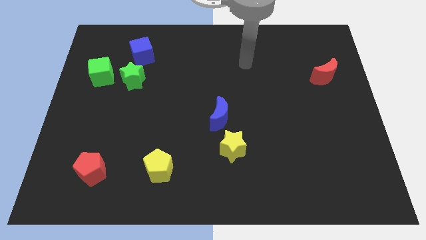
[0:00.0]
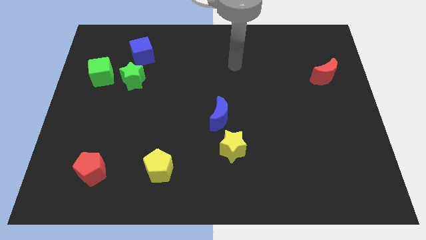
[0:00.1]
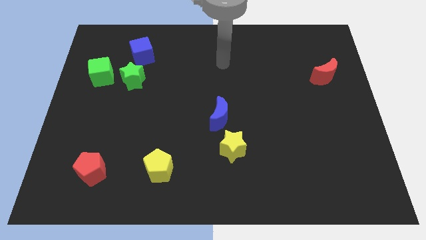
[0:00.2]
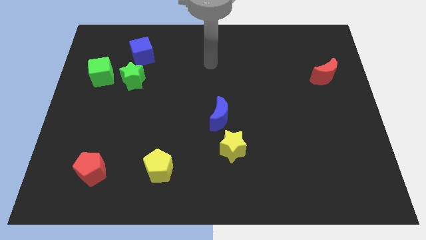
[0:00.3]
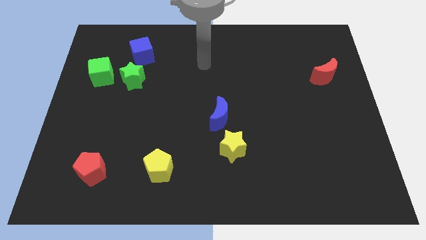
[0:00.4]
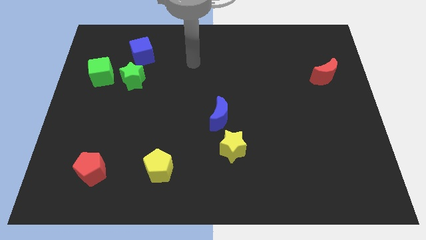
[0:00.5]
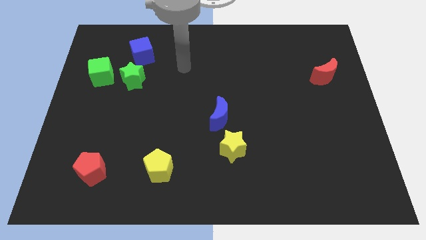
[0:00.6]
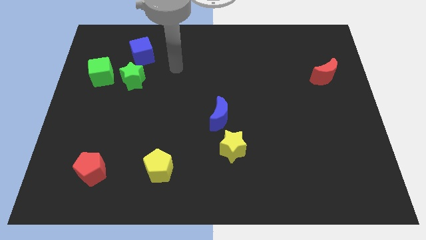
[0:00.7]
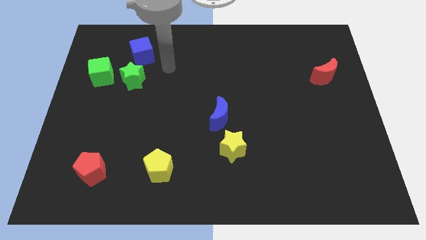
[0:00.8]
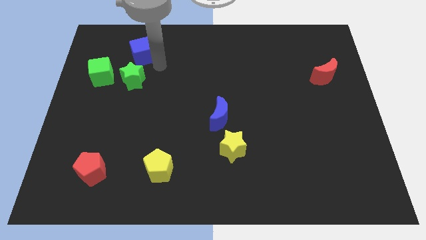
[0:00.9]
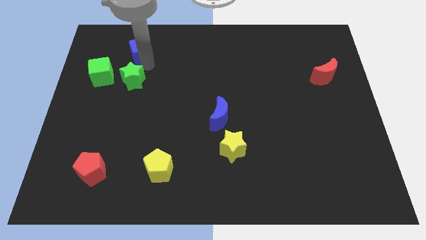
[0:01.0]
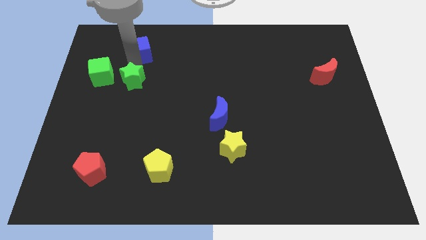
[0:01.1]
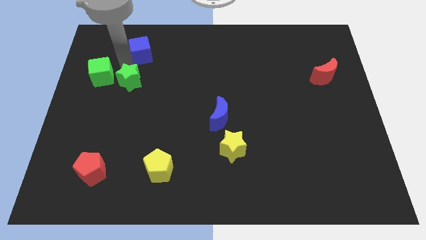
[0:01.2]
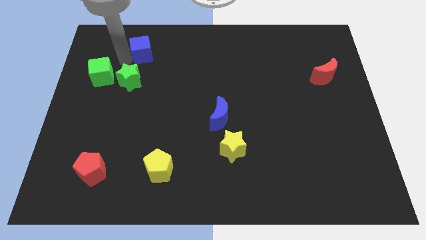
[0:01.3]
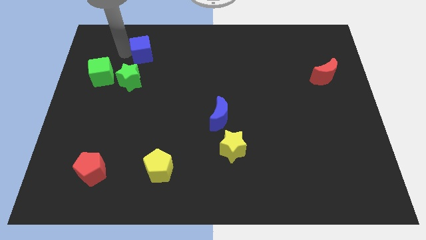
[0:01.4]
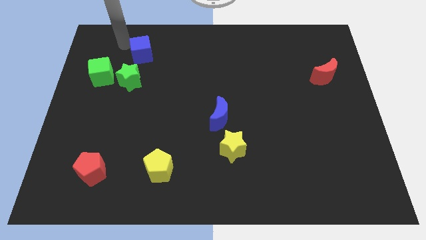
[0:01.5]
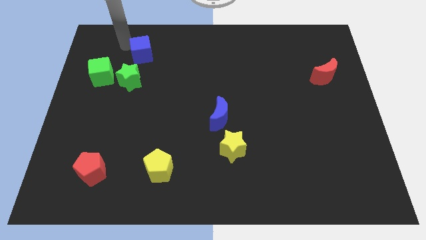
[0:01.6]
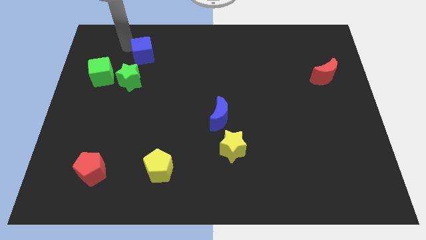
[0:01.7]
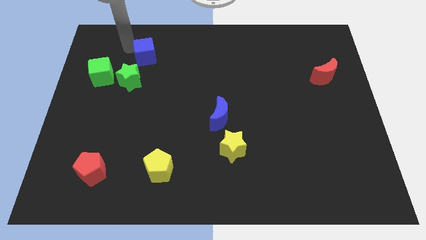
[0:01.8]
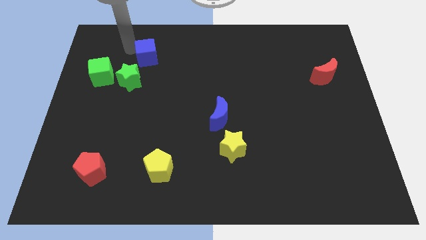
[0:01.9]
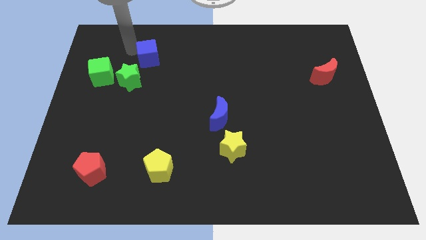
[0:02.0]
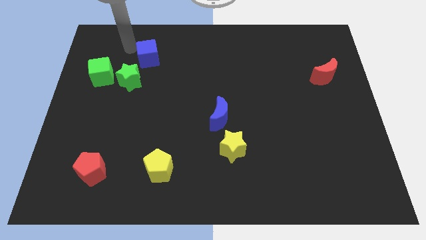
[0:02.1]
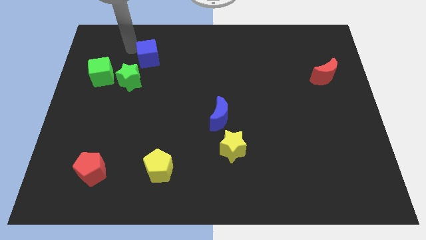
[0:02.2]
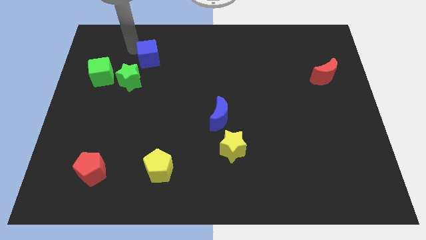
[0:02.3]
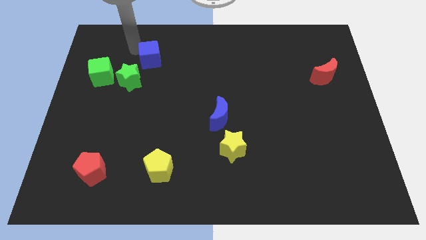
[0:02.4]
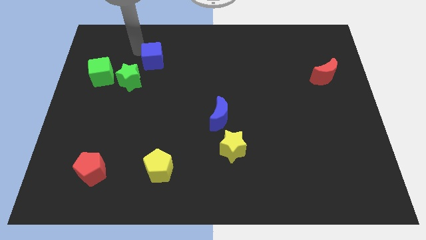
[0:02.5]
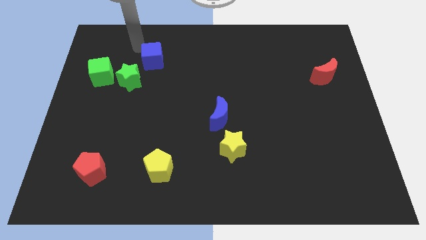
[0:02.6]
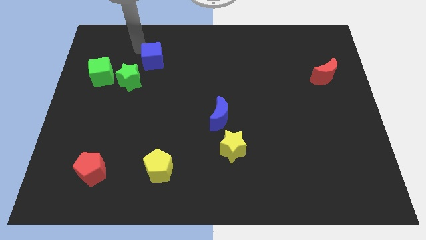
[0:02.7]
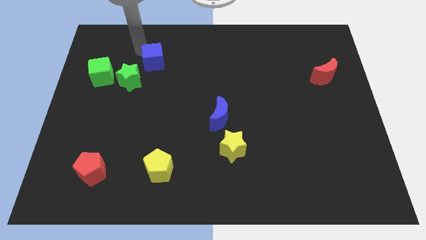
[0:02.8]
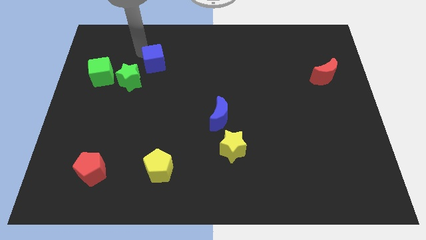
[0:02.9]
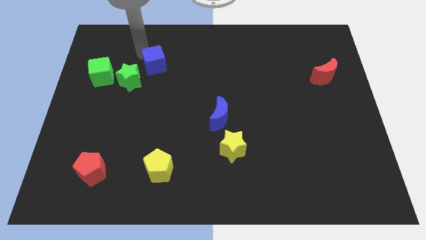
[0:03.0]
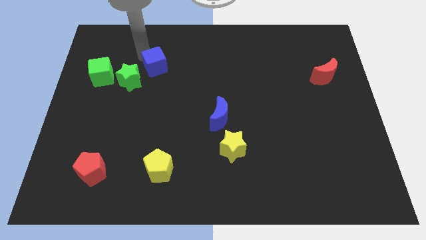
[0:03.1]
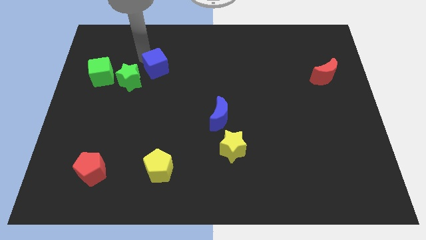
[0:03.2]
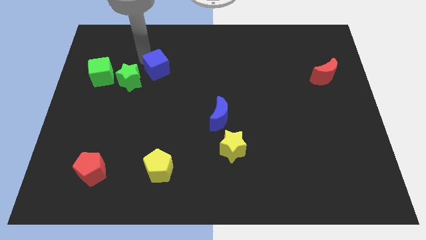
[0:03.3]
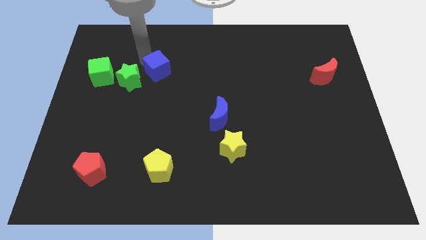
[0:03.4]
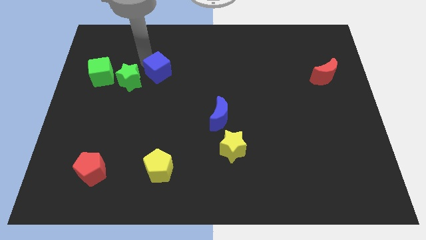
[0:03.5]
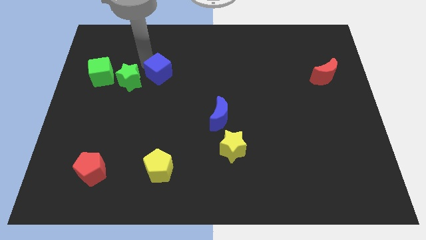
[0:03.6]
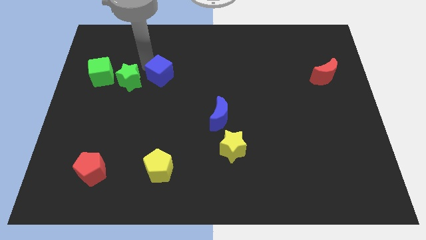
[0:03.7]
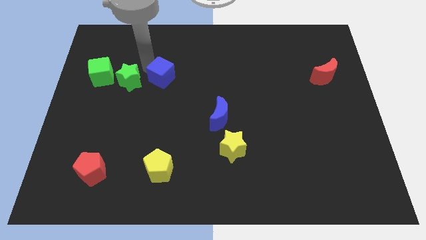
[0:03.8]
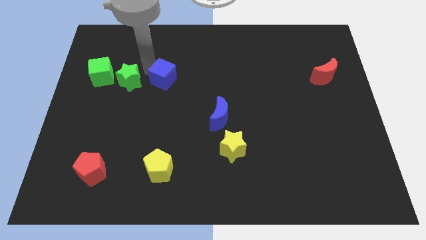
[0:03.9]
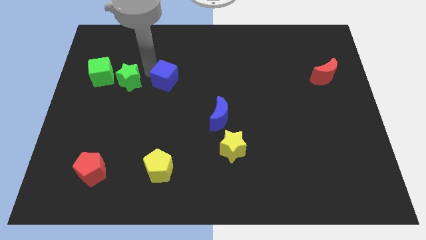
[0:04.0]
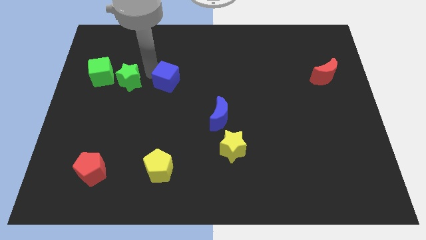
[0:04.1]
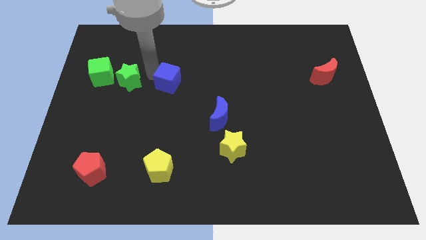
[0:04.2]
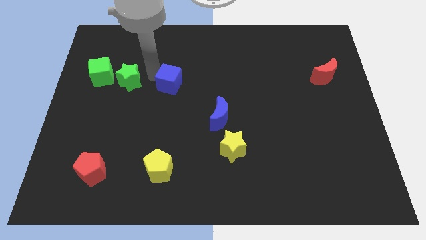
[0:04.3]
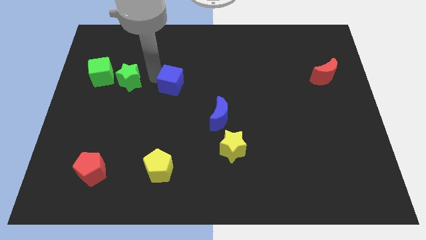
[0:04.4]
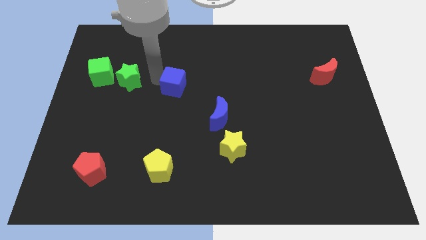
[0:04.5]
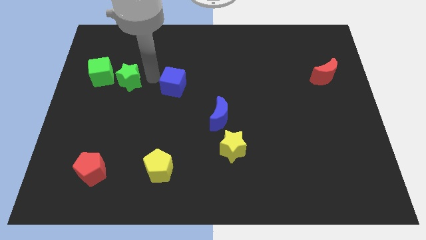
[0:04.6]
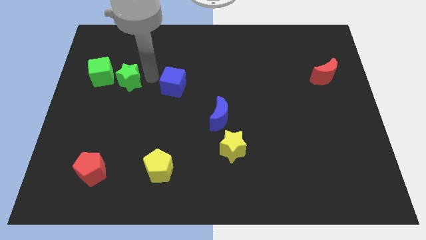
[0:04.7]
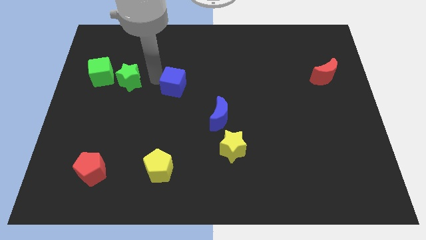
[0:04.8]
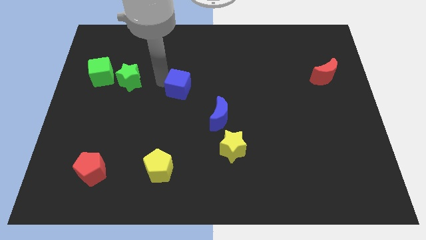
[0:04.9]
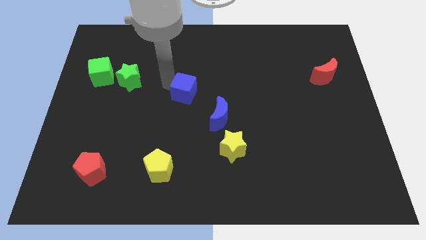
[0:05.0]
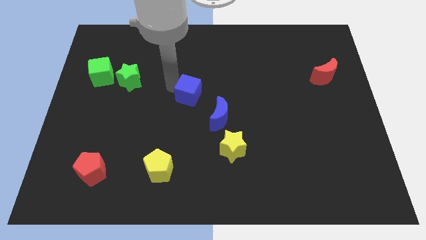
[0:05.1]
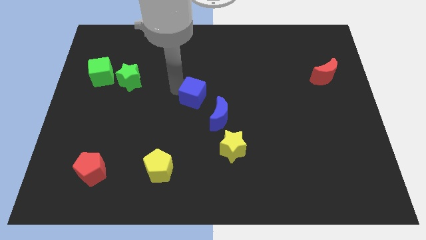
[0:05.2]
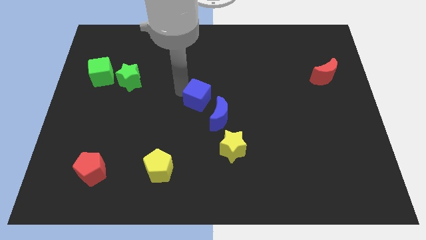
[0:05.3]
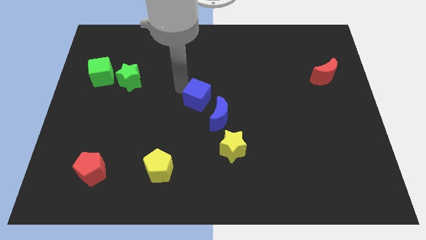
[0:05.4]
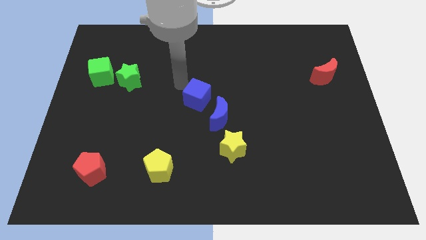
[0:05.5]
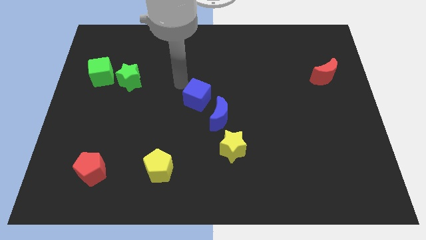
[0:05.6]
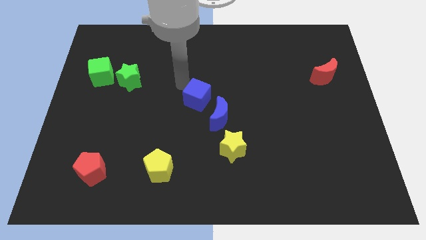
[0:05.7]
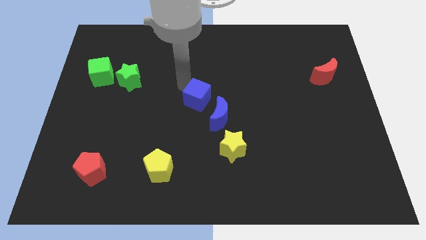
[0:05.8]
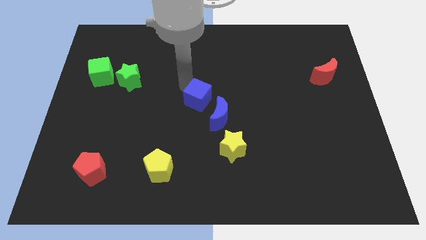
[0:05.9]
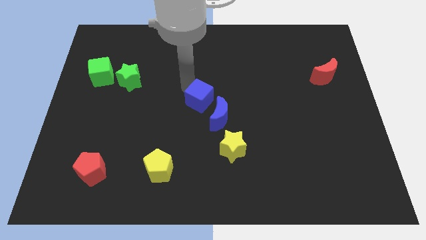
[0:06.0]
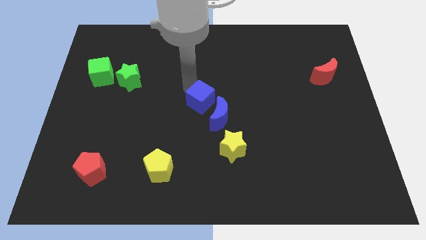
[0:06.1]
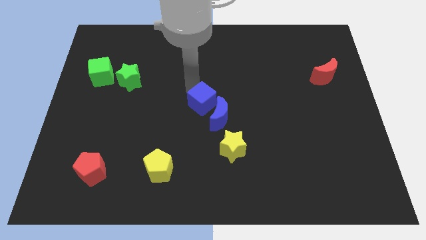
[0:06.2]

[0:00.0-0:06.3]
slide the blue cube to the blue moon

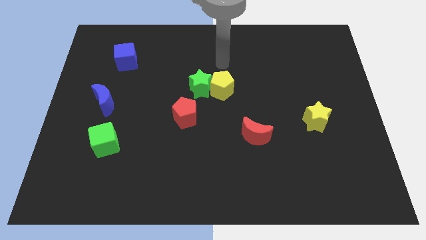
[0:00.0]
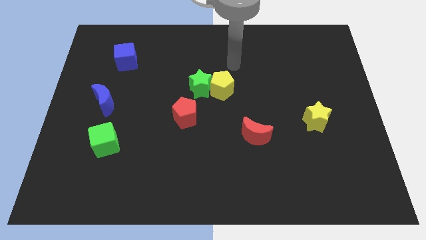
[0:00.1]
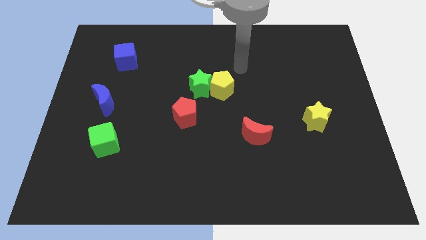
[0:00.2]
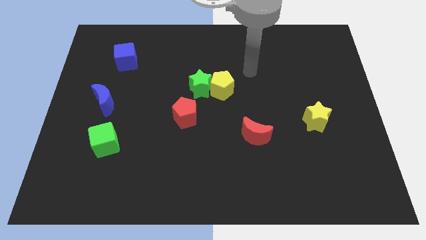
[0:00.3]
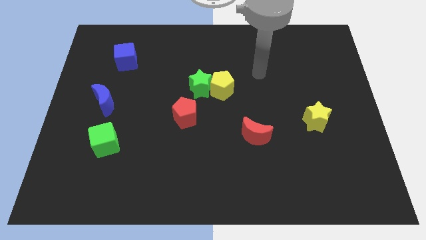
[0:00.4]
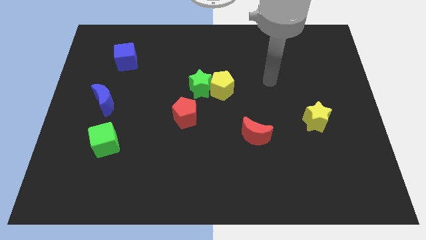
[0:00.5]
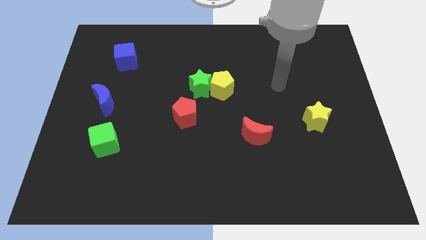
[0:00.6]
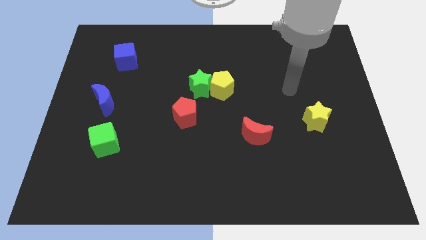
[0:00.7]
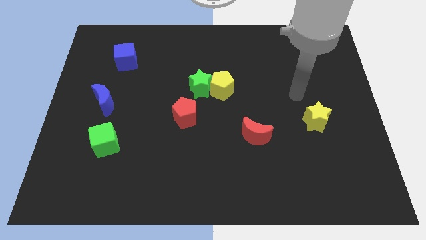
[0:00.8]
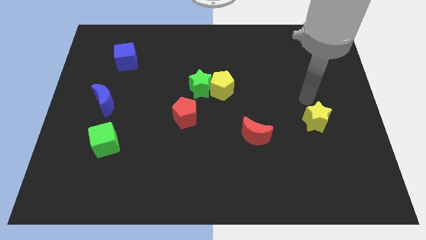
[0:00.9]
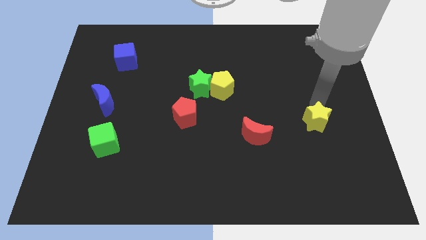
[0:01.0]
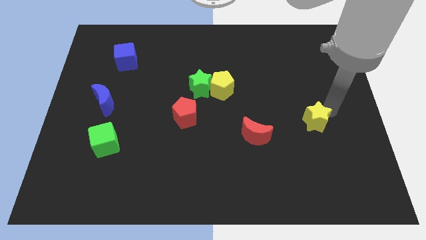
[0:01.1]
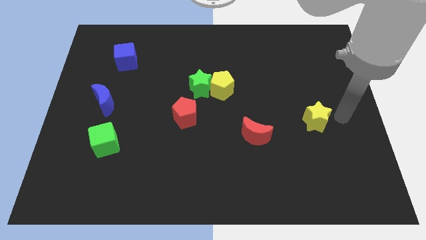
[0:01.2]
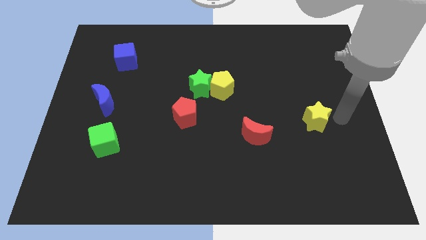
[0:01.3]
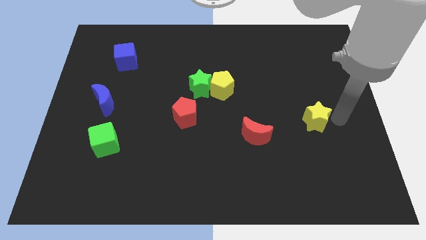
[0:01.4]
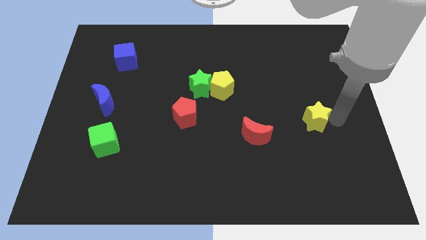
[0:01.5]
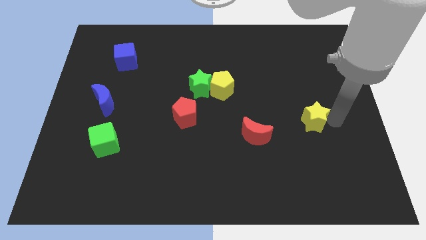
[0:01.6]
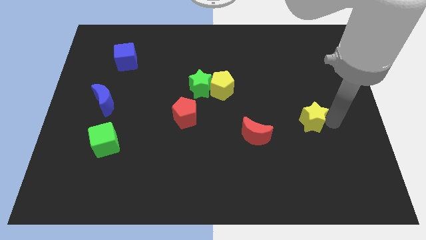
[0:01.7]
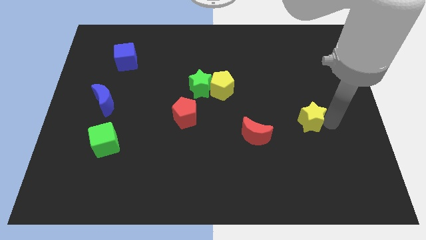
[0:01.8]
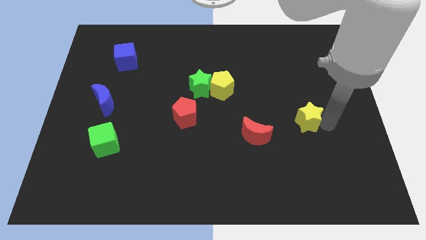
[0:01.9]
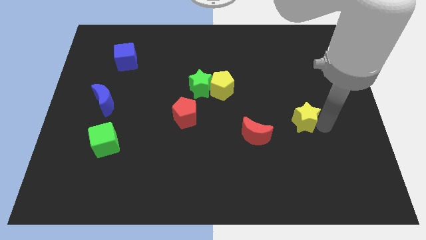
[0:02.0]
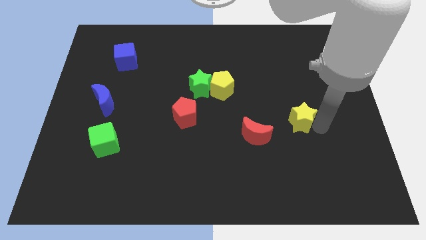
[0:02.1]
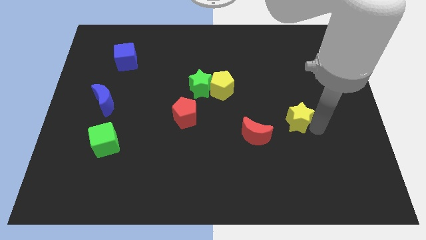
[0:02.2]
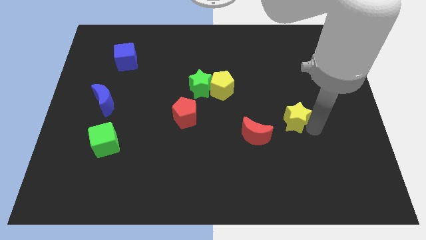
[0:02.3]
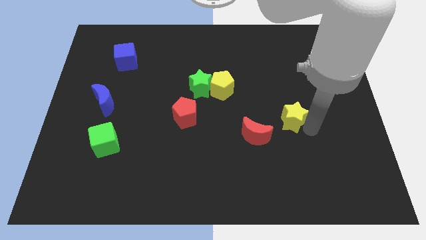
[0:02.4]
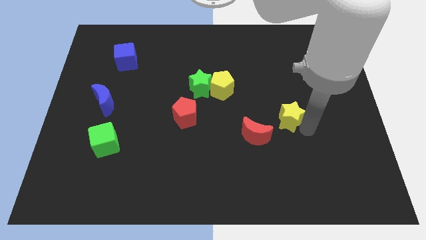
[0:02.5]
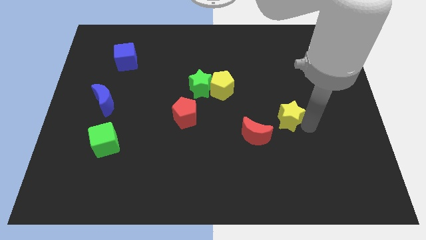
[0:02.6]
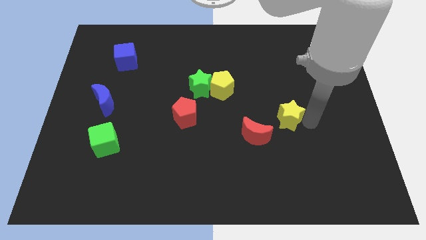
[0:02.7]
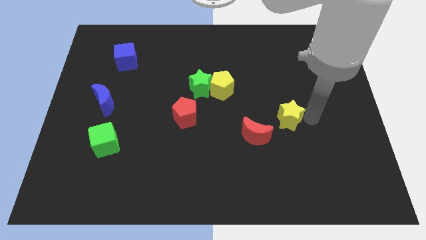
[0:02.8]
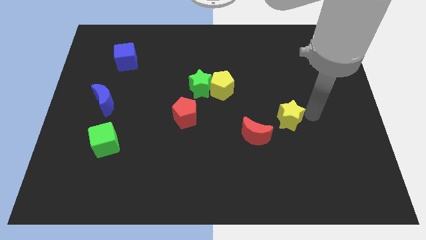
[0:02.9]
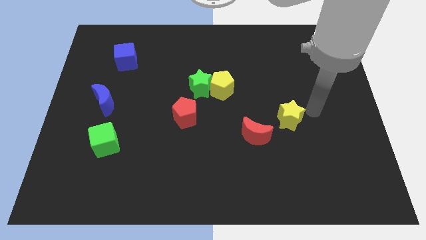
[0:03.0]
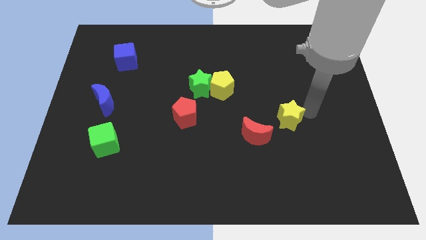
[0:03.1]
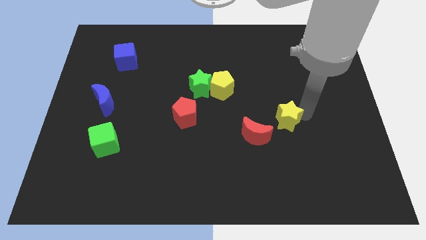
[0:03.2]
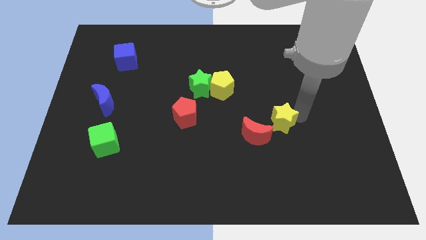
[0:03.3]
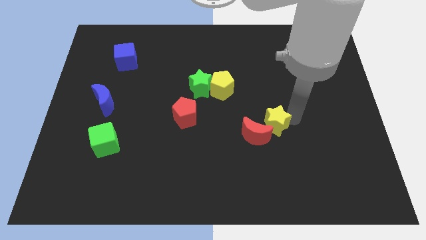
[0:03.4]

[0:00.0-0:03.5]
move the yellow star towards the red moon
